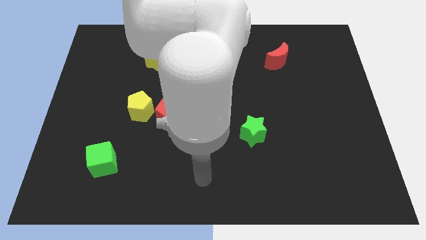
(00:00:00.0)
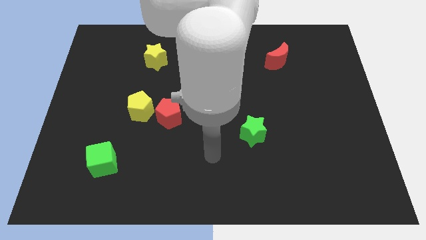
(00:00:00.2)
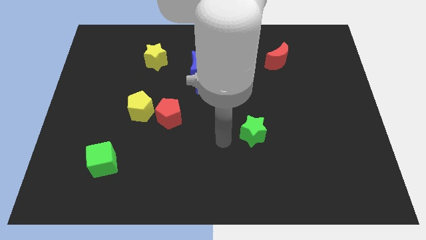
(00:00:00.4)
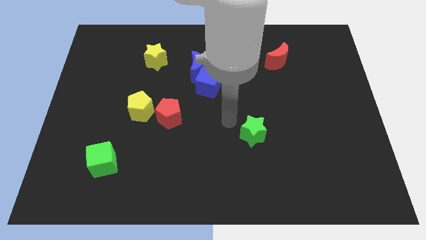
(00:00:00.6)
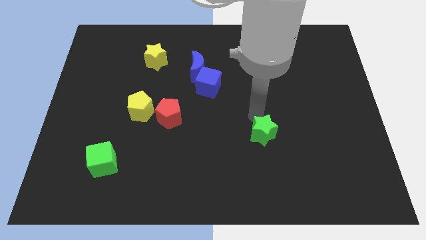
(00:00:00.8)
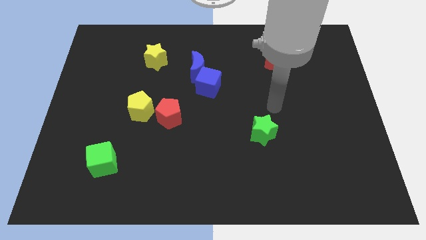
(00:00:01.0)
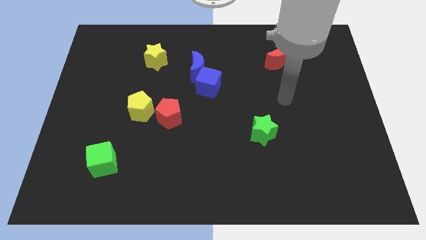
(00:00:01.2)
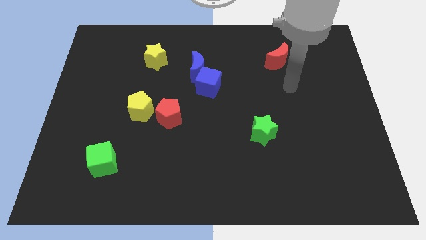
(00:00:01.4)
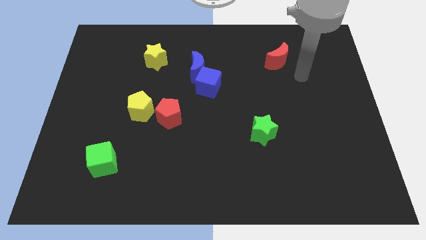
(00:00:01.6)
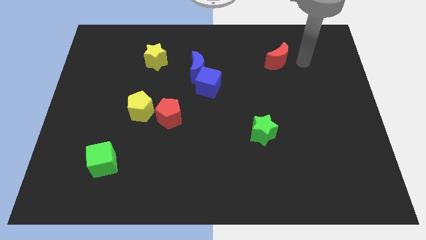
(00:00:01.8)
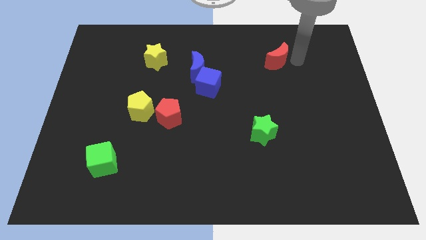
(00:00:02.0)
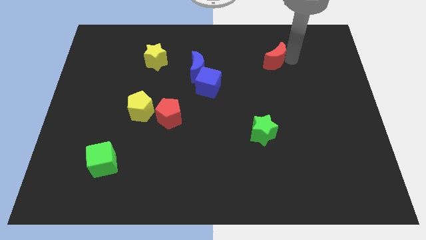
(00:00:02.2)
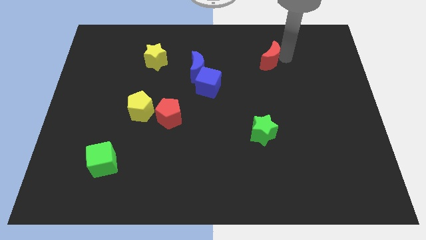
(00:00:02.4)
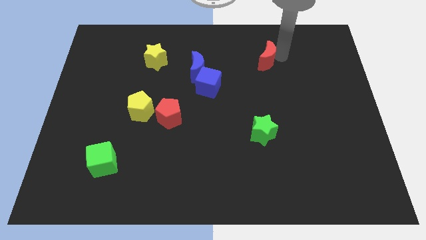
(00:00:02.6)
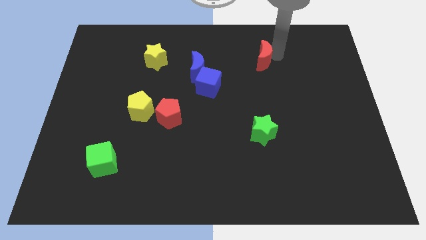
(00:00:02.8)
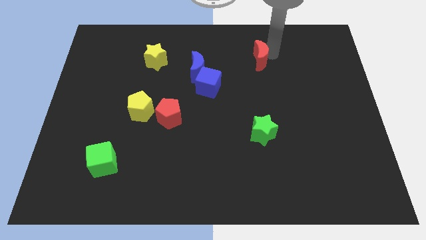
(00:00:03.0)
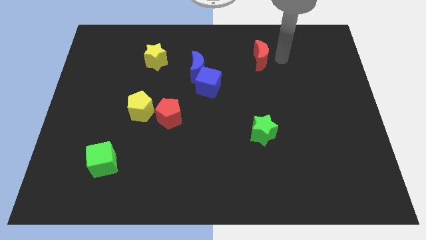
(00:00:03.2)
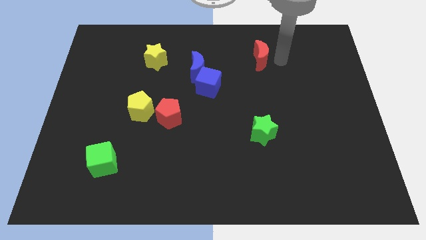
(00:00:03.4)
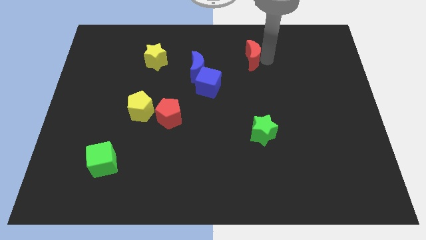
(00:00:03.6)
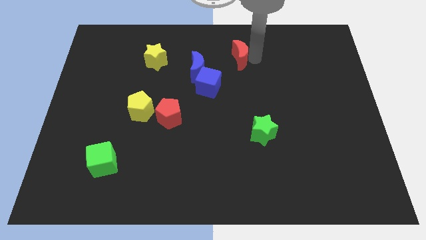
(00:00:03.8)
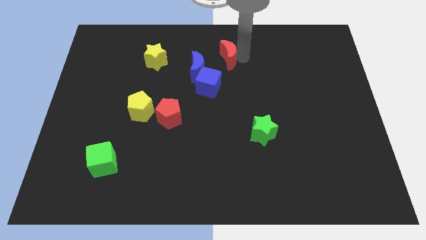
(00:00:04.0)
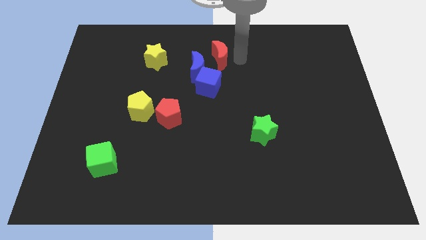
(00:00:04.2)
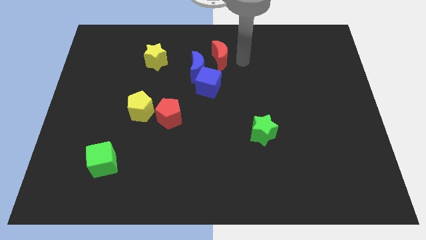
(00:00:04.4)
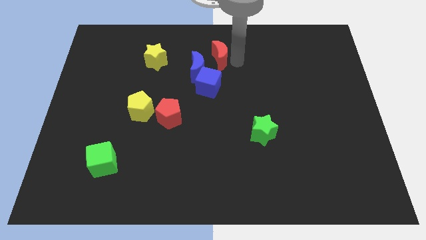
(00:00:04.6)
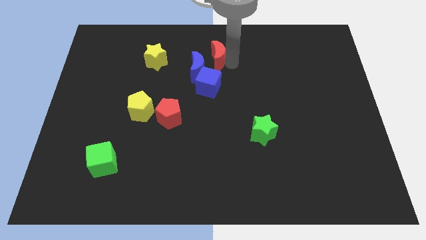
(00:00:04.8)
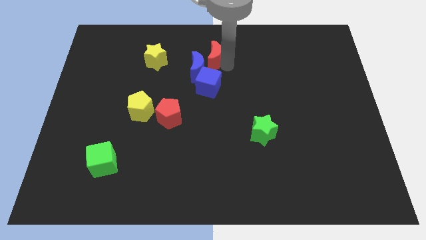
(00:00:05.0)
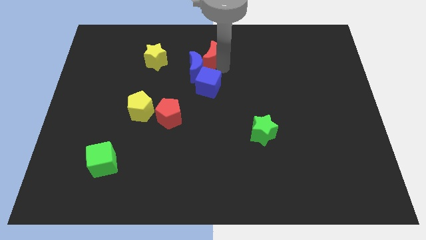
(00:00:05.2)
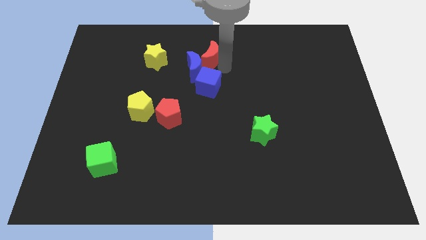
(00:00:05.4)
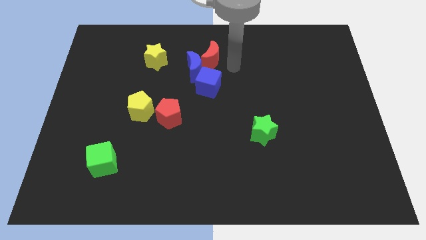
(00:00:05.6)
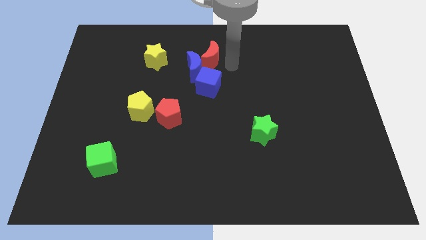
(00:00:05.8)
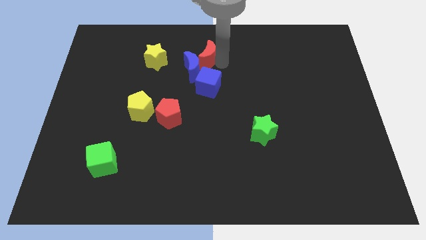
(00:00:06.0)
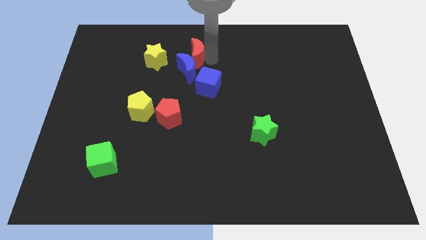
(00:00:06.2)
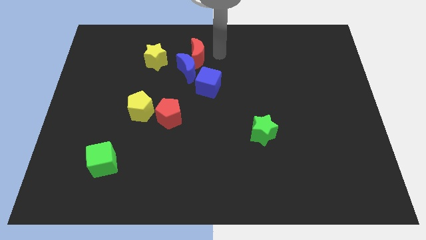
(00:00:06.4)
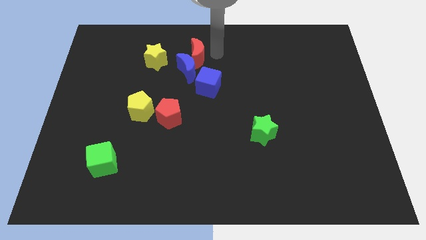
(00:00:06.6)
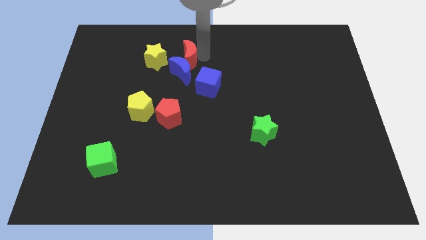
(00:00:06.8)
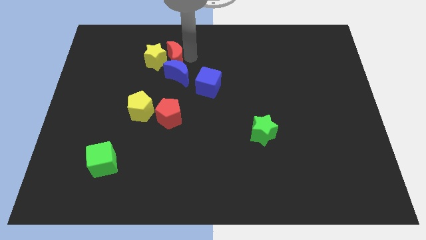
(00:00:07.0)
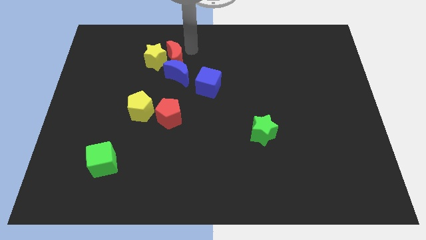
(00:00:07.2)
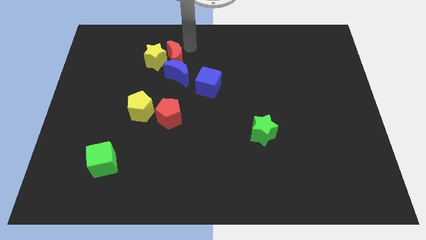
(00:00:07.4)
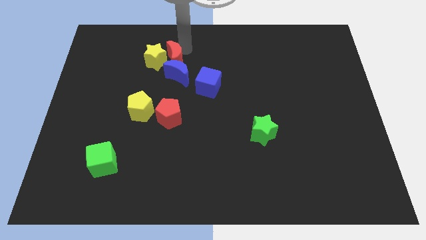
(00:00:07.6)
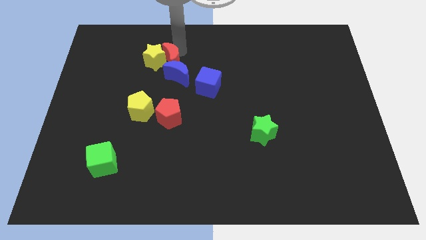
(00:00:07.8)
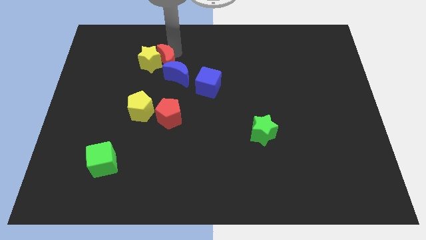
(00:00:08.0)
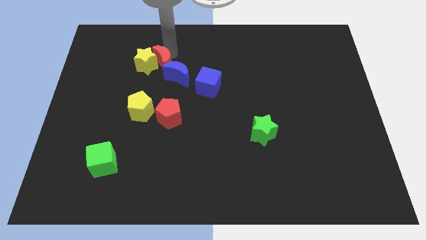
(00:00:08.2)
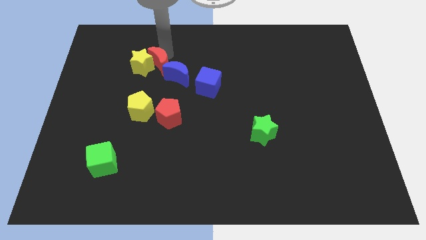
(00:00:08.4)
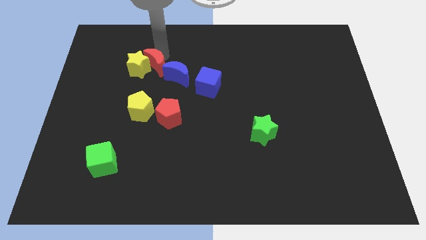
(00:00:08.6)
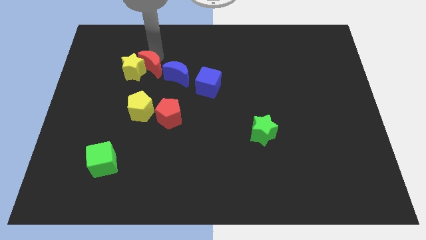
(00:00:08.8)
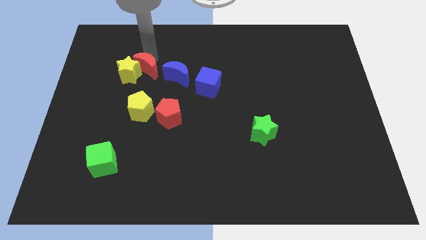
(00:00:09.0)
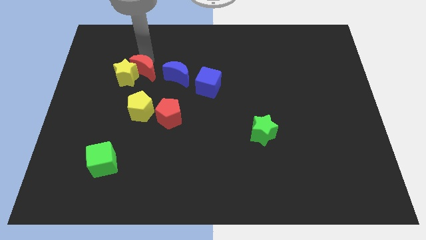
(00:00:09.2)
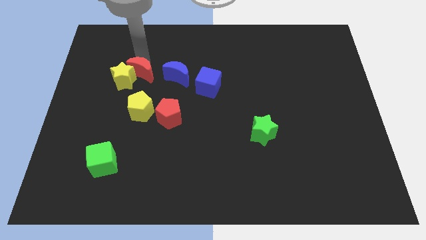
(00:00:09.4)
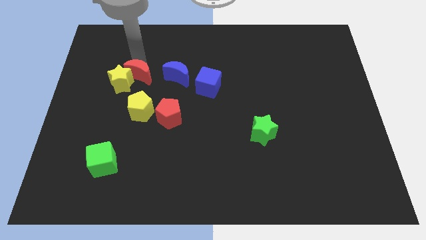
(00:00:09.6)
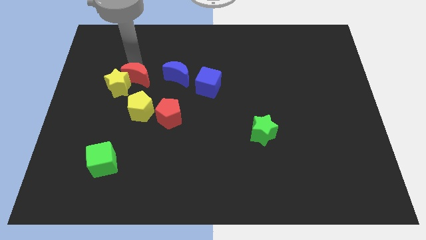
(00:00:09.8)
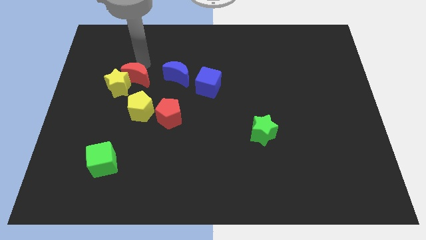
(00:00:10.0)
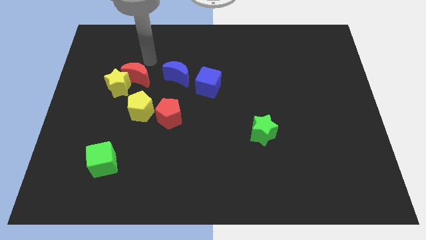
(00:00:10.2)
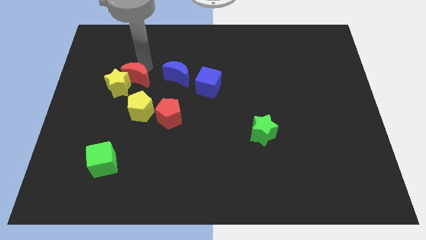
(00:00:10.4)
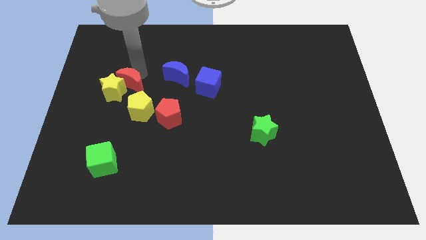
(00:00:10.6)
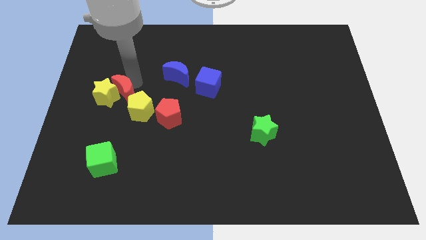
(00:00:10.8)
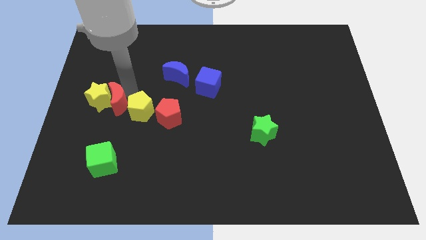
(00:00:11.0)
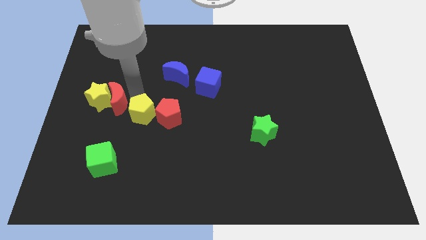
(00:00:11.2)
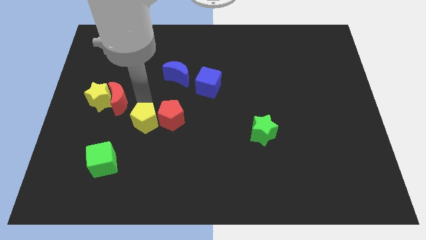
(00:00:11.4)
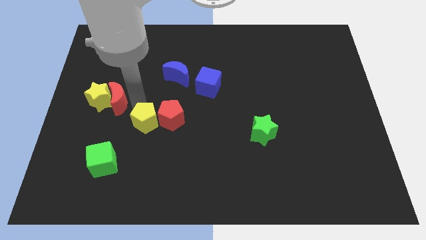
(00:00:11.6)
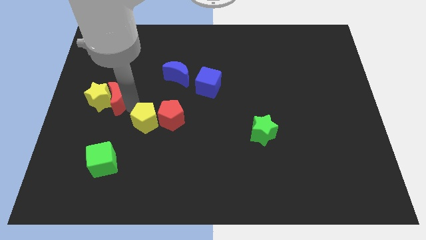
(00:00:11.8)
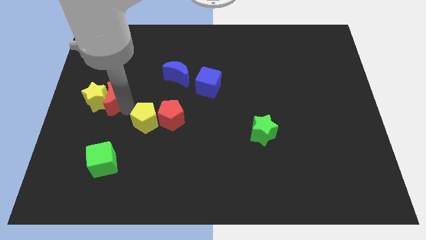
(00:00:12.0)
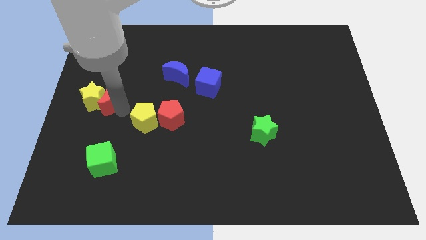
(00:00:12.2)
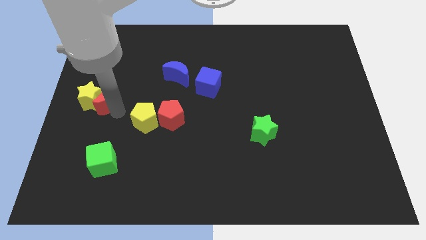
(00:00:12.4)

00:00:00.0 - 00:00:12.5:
put the red moon to the center left

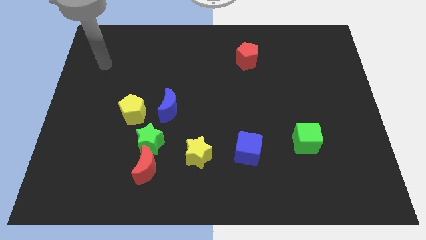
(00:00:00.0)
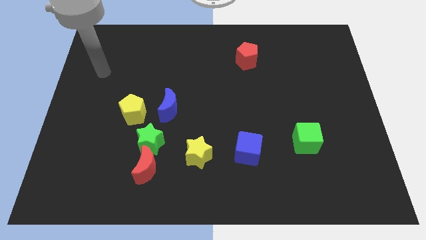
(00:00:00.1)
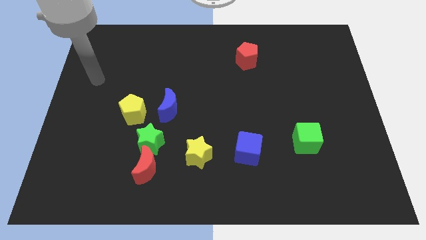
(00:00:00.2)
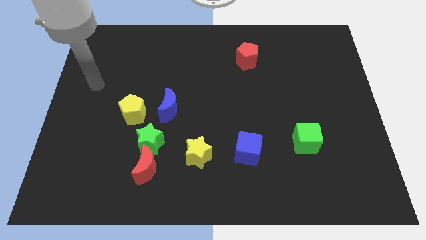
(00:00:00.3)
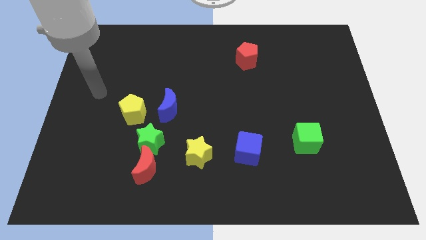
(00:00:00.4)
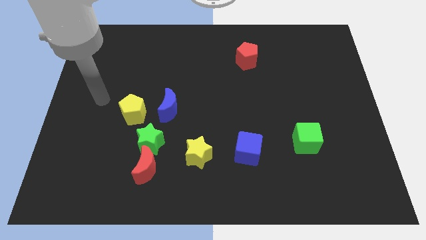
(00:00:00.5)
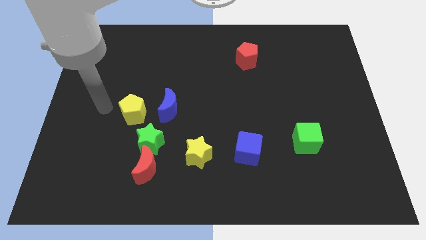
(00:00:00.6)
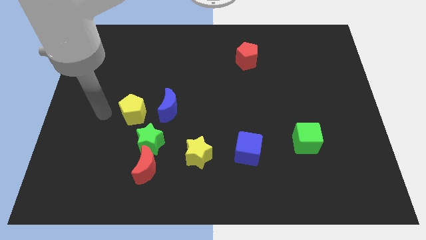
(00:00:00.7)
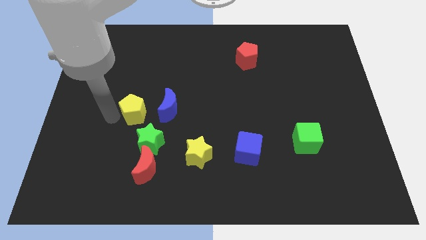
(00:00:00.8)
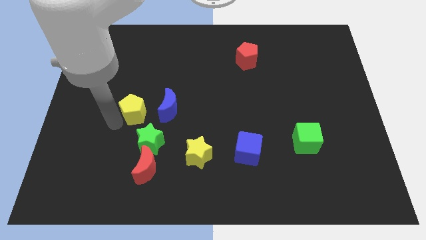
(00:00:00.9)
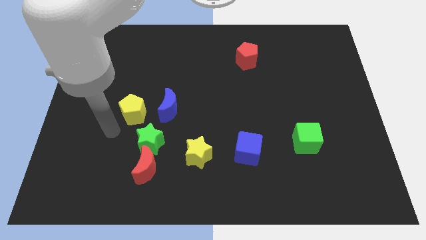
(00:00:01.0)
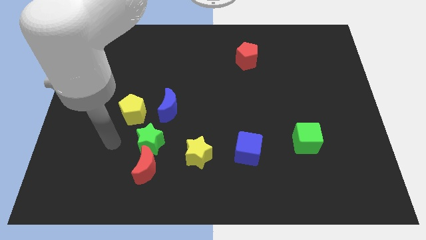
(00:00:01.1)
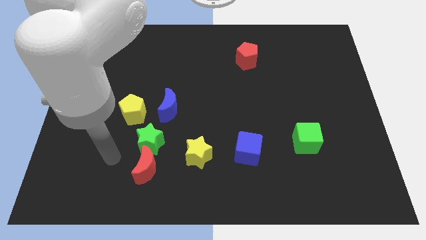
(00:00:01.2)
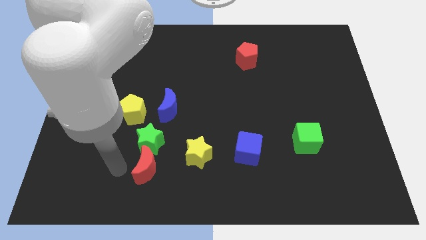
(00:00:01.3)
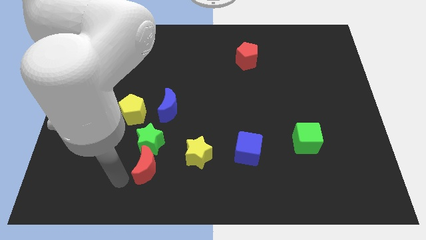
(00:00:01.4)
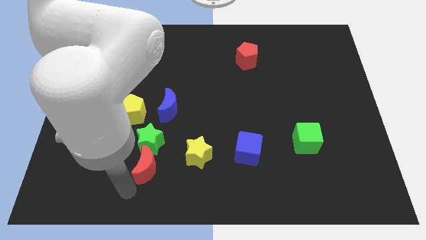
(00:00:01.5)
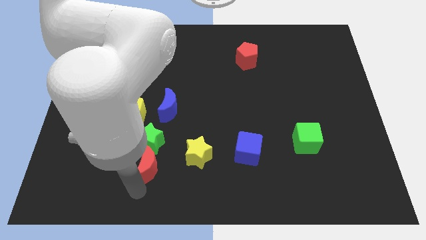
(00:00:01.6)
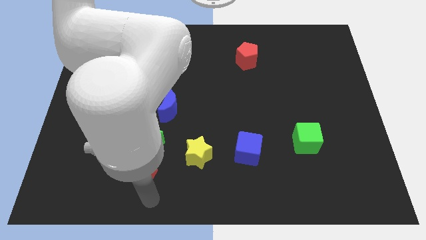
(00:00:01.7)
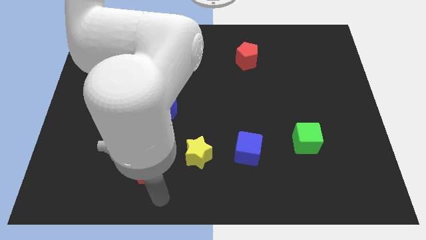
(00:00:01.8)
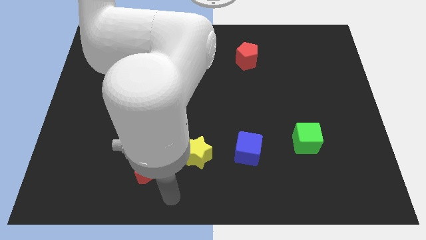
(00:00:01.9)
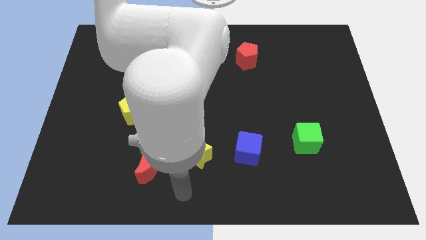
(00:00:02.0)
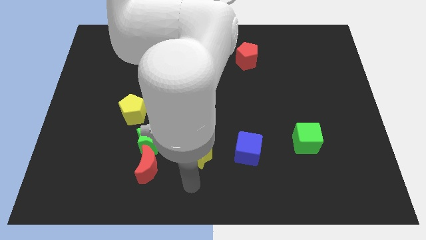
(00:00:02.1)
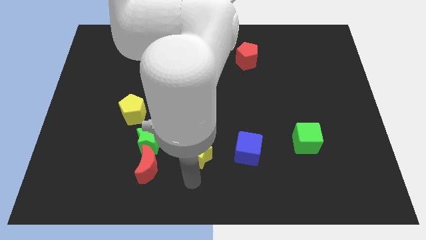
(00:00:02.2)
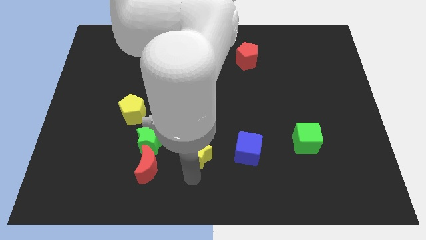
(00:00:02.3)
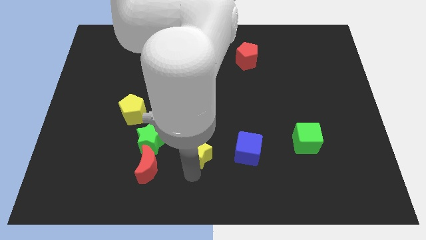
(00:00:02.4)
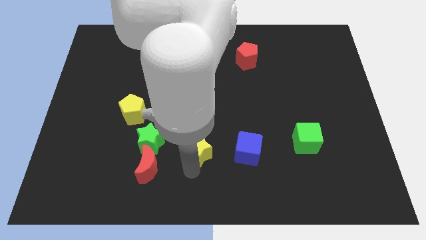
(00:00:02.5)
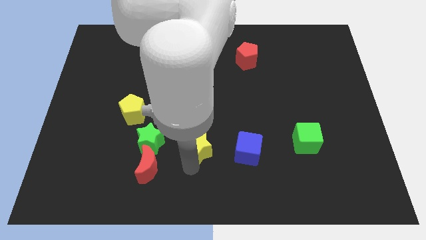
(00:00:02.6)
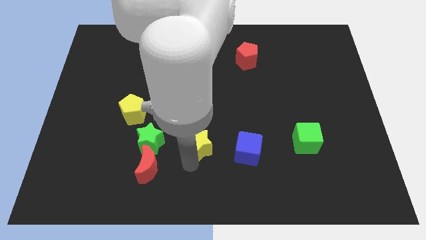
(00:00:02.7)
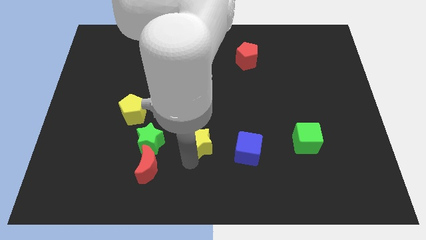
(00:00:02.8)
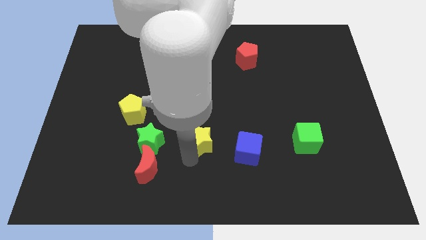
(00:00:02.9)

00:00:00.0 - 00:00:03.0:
slide the yellow star to the middle
